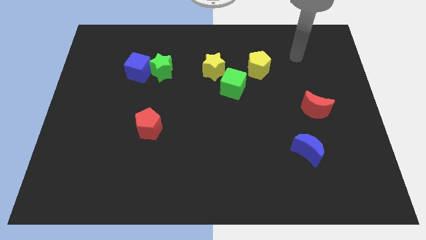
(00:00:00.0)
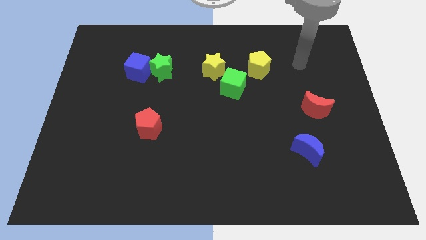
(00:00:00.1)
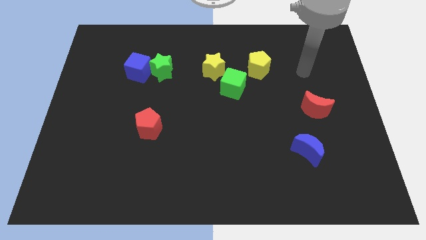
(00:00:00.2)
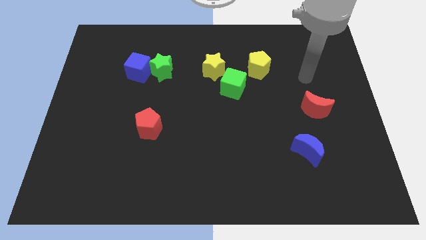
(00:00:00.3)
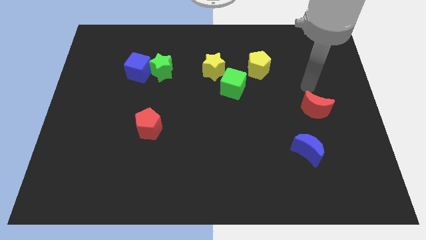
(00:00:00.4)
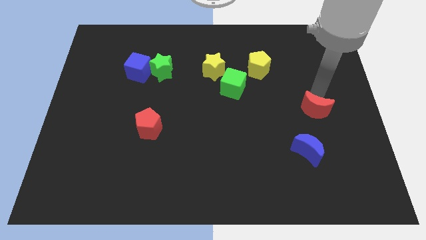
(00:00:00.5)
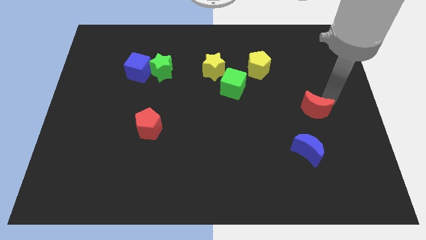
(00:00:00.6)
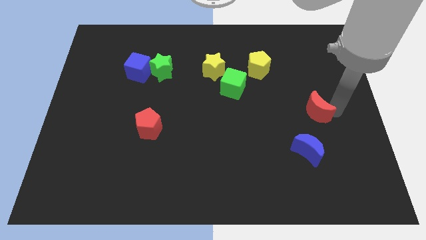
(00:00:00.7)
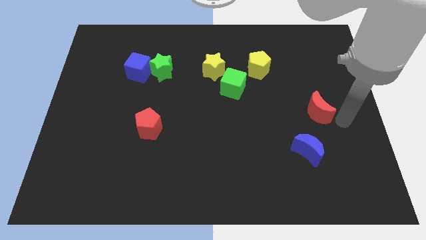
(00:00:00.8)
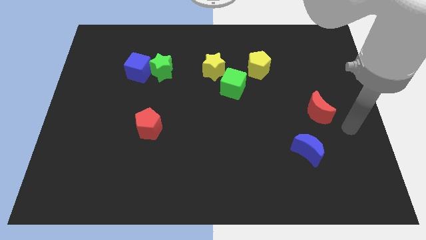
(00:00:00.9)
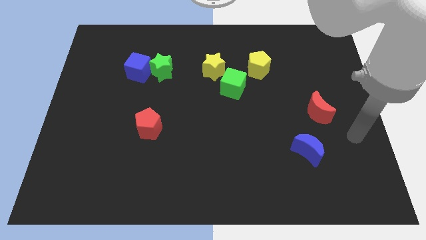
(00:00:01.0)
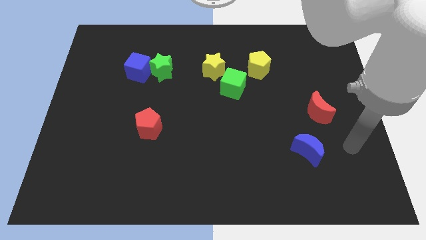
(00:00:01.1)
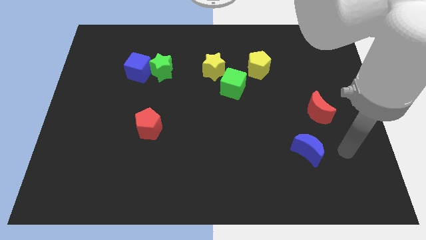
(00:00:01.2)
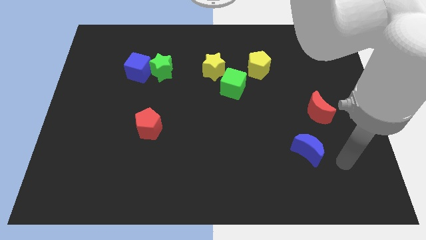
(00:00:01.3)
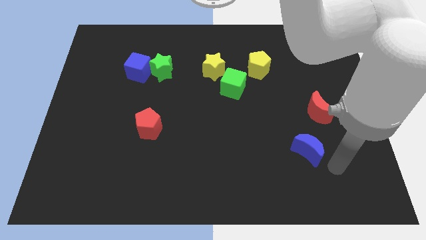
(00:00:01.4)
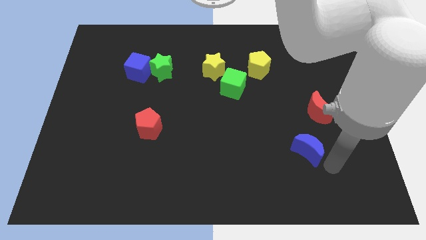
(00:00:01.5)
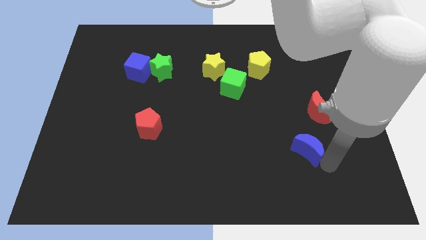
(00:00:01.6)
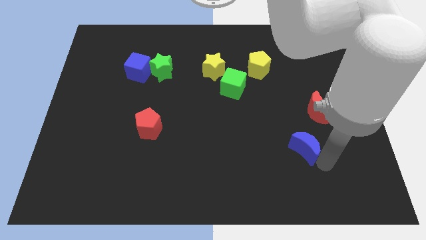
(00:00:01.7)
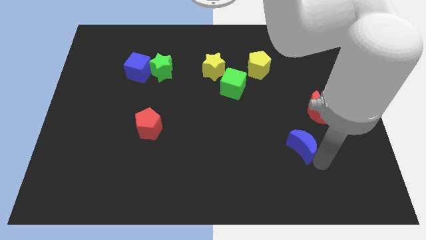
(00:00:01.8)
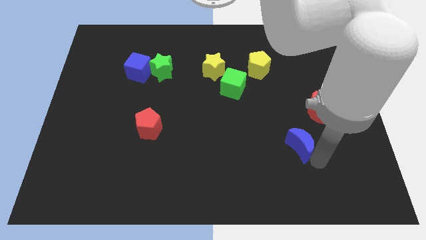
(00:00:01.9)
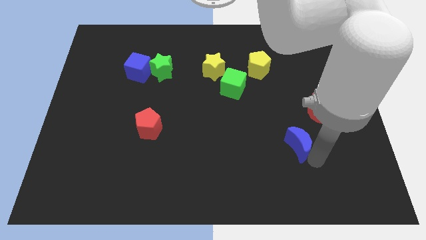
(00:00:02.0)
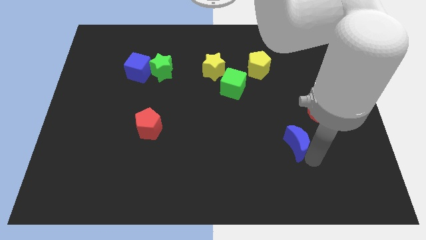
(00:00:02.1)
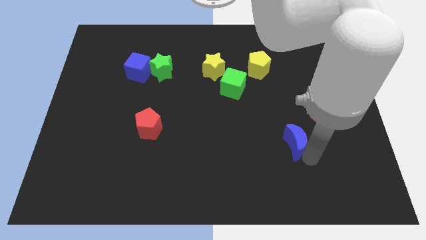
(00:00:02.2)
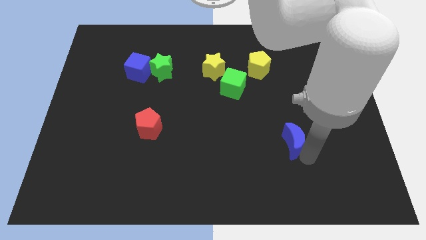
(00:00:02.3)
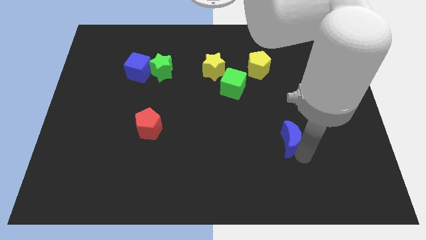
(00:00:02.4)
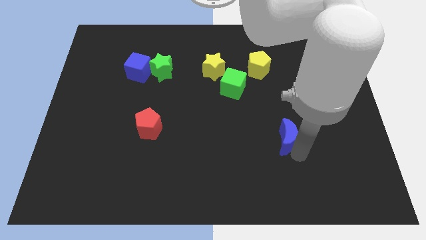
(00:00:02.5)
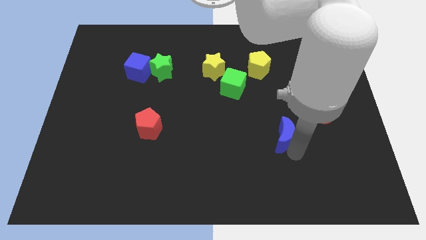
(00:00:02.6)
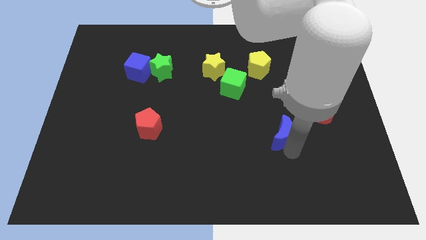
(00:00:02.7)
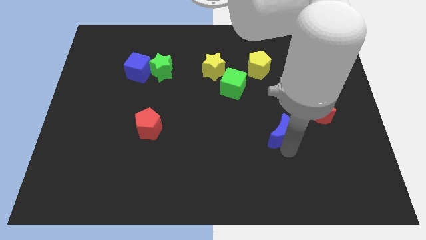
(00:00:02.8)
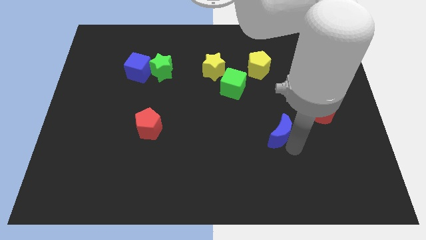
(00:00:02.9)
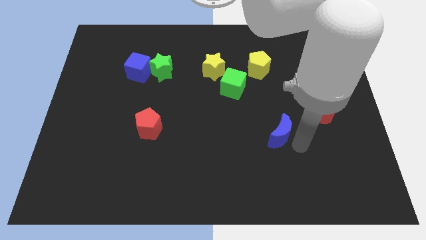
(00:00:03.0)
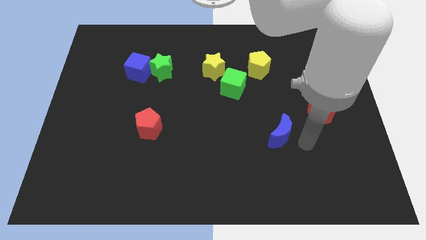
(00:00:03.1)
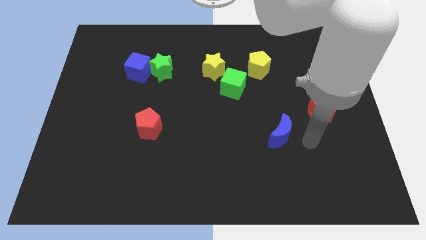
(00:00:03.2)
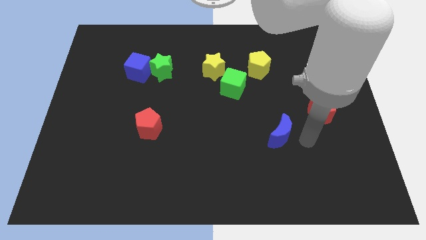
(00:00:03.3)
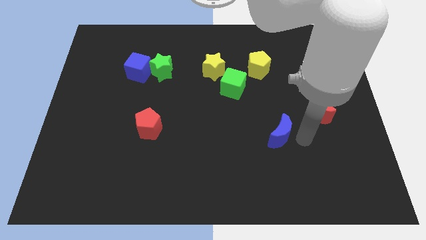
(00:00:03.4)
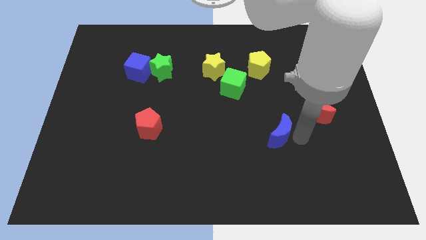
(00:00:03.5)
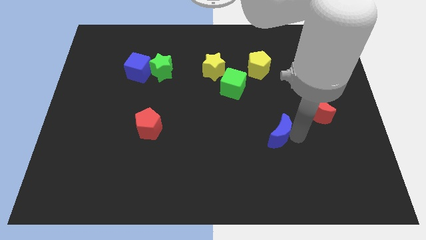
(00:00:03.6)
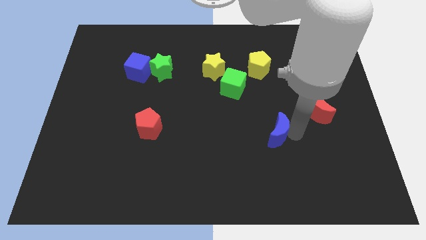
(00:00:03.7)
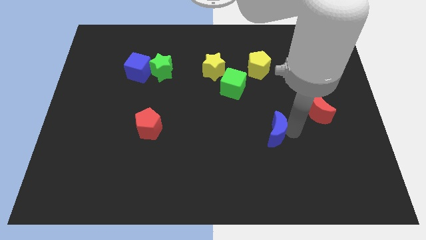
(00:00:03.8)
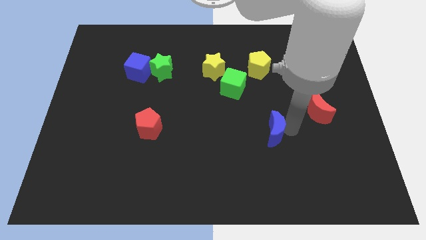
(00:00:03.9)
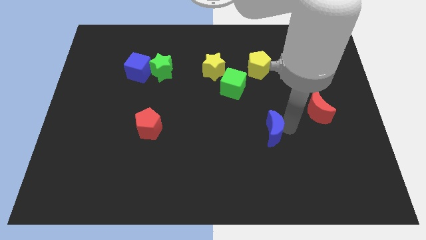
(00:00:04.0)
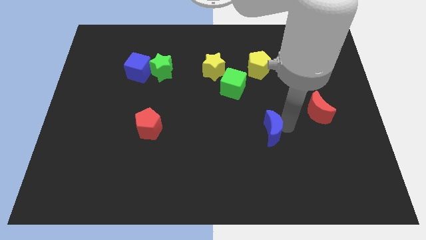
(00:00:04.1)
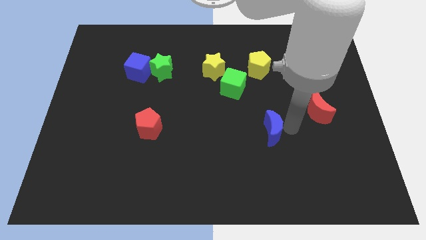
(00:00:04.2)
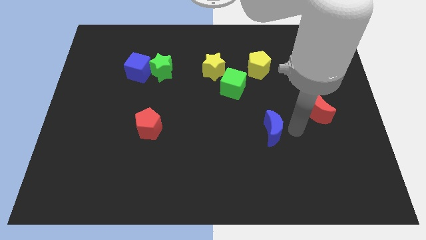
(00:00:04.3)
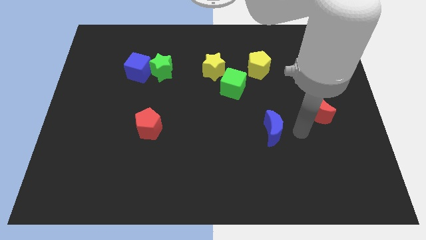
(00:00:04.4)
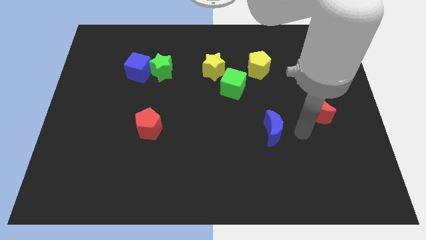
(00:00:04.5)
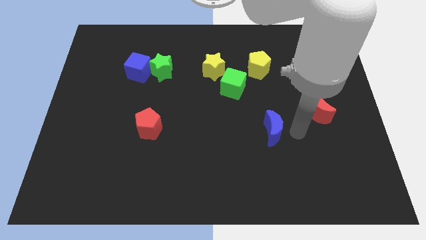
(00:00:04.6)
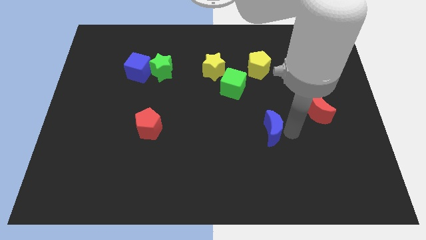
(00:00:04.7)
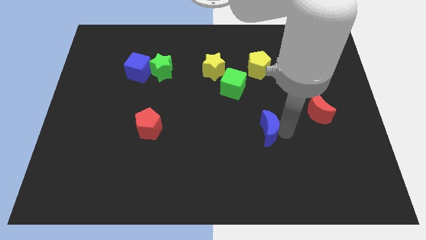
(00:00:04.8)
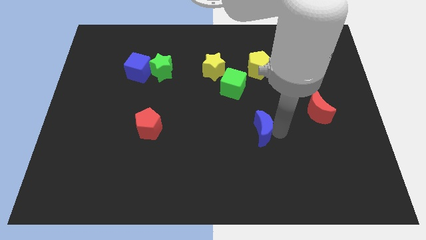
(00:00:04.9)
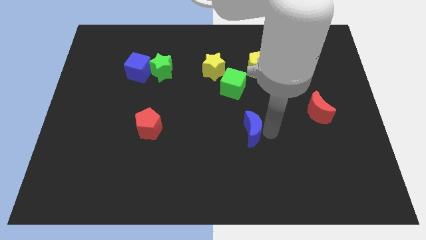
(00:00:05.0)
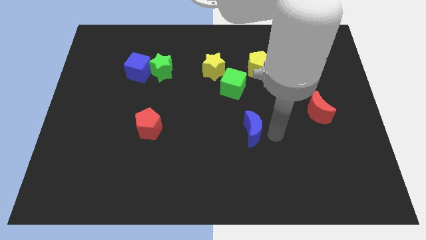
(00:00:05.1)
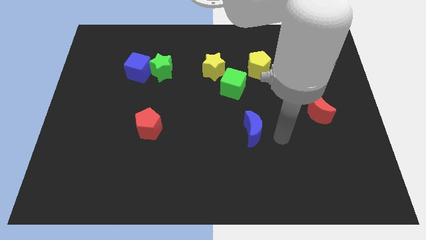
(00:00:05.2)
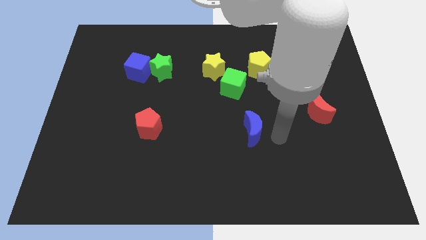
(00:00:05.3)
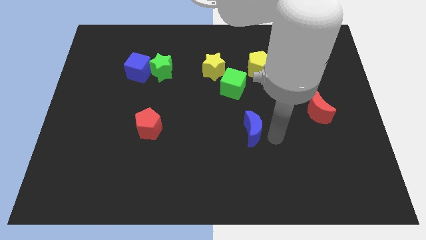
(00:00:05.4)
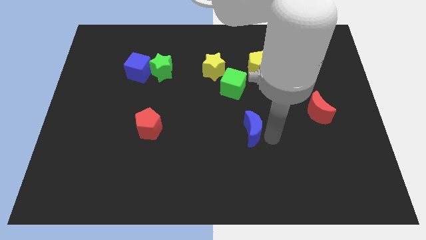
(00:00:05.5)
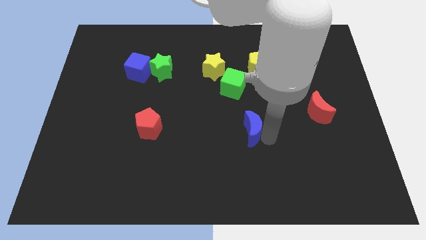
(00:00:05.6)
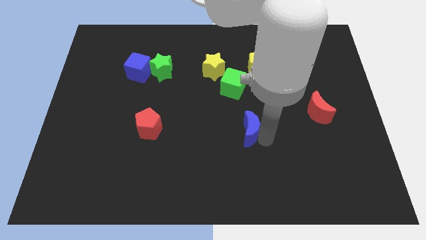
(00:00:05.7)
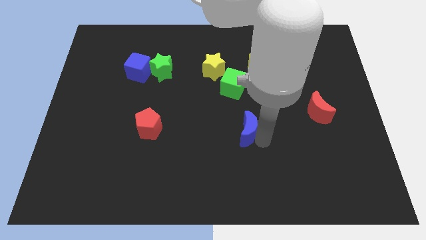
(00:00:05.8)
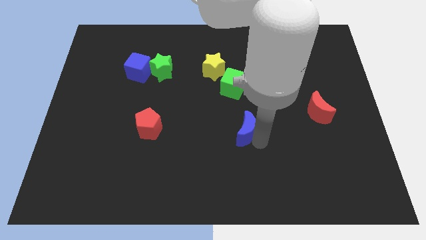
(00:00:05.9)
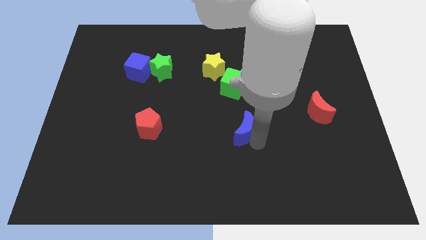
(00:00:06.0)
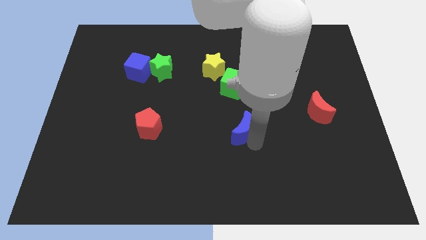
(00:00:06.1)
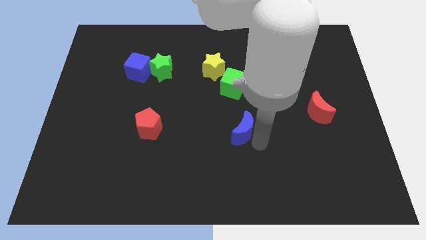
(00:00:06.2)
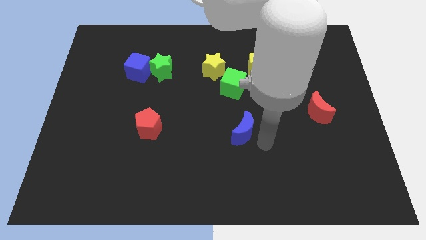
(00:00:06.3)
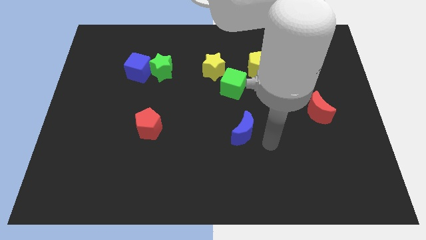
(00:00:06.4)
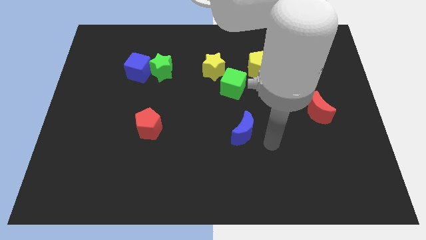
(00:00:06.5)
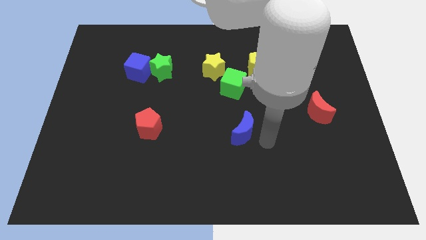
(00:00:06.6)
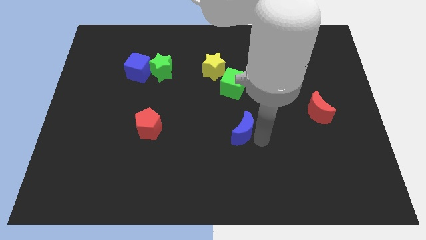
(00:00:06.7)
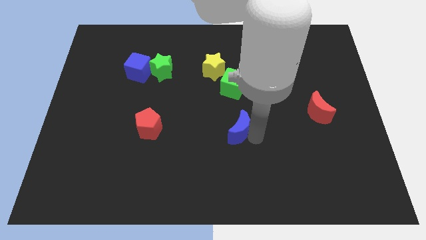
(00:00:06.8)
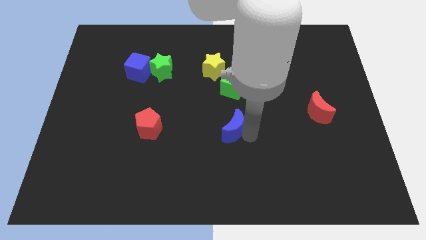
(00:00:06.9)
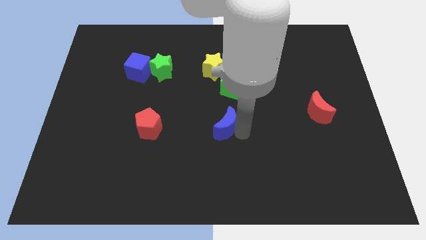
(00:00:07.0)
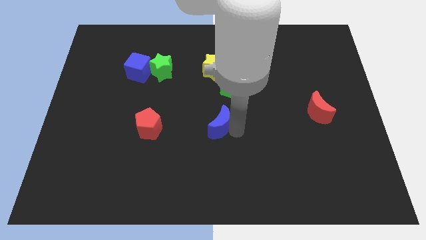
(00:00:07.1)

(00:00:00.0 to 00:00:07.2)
put the blue moon to the right of the red pentagon
